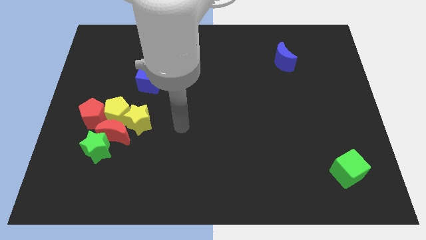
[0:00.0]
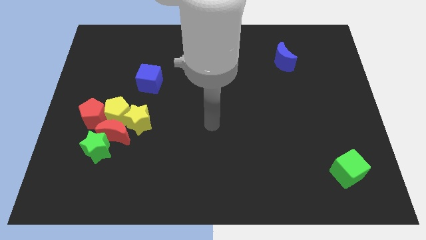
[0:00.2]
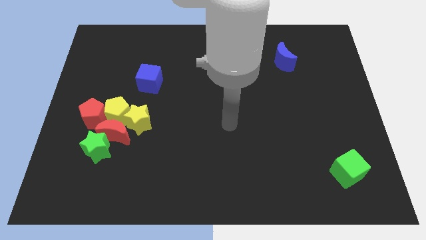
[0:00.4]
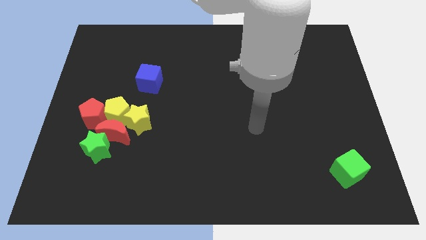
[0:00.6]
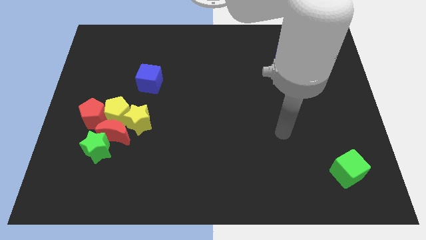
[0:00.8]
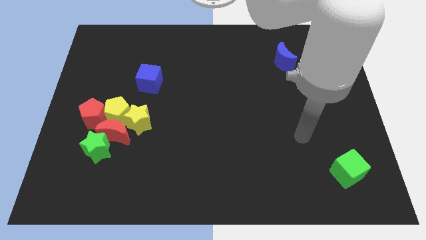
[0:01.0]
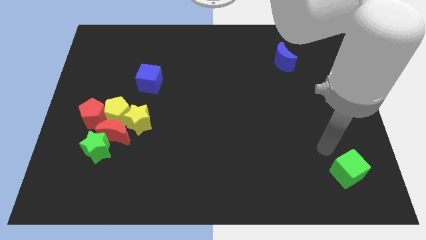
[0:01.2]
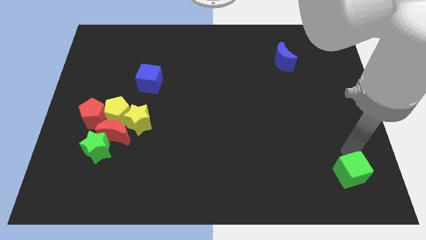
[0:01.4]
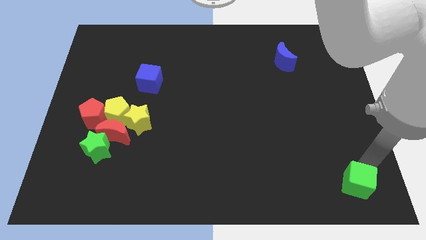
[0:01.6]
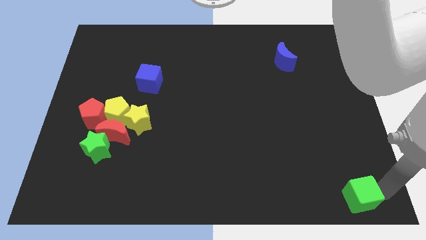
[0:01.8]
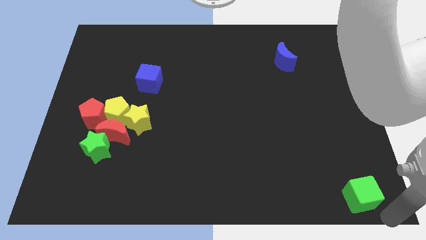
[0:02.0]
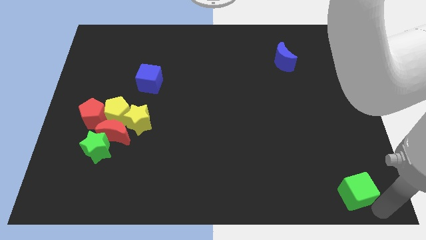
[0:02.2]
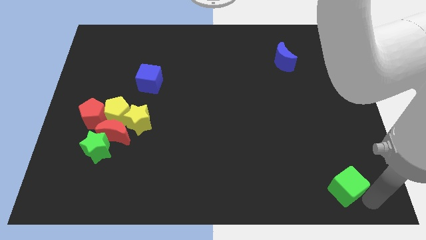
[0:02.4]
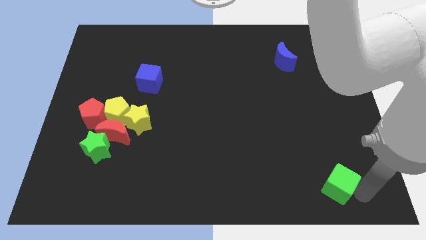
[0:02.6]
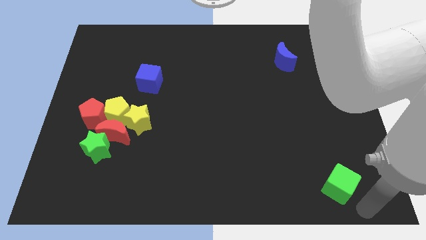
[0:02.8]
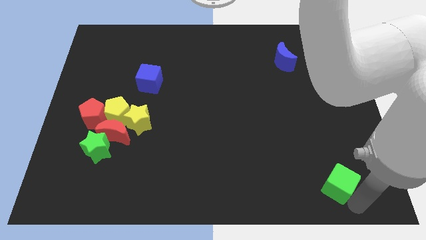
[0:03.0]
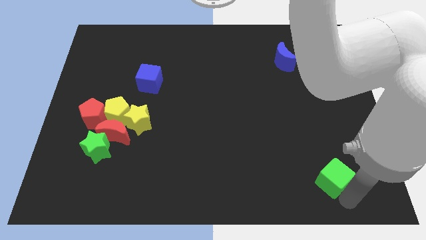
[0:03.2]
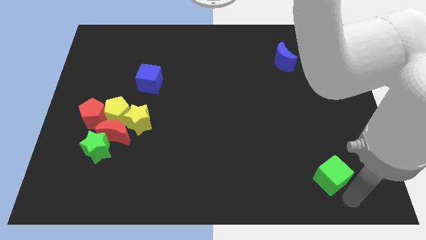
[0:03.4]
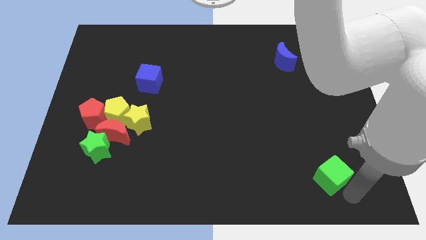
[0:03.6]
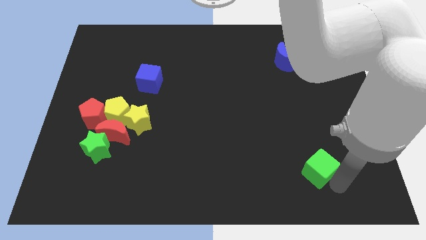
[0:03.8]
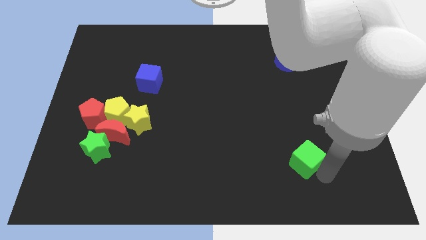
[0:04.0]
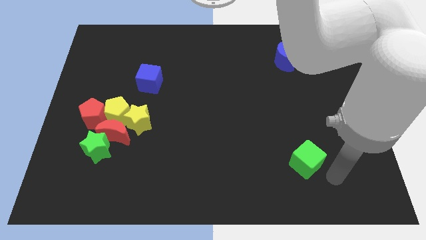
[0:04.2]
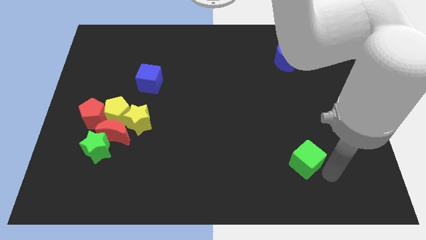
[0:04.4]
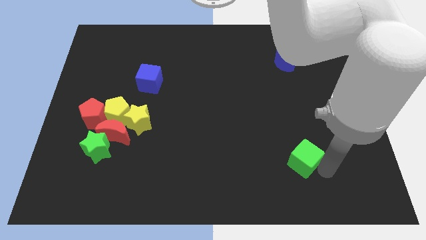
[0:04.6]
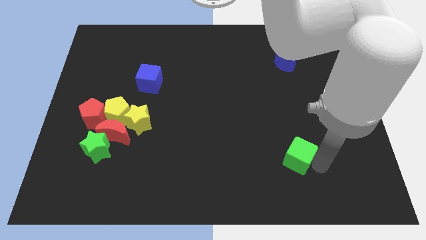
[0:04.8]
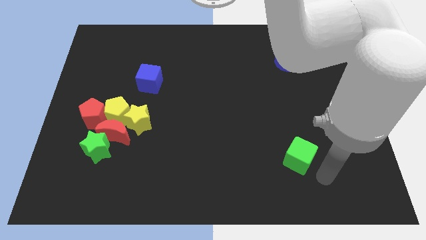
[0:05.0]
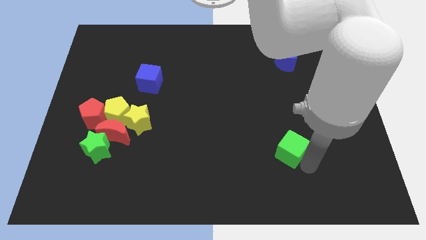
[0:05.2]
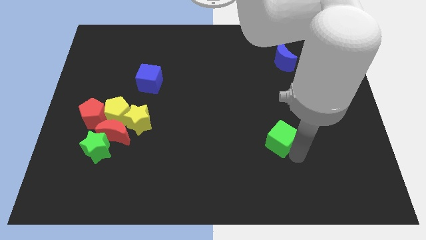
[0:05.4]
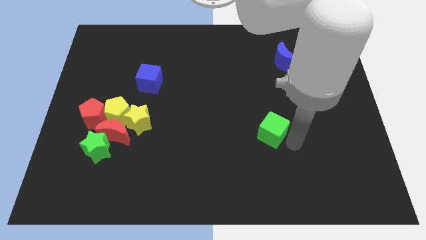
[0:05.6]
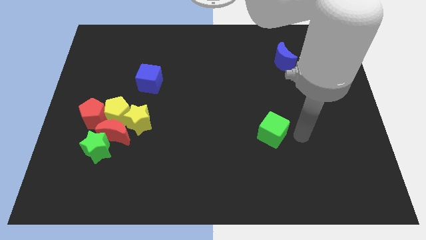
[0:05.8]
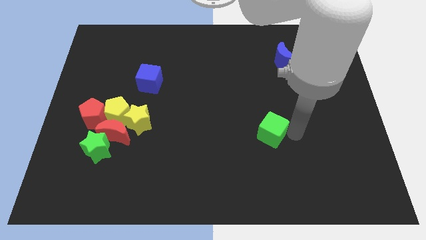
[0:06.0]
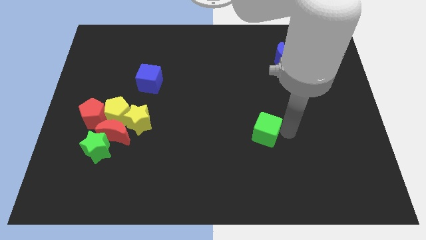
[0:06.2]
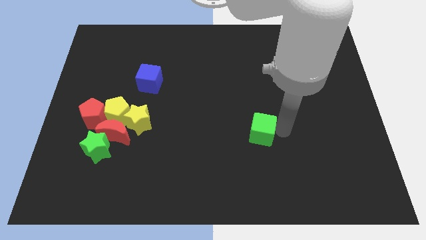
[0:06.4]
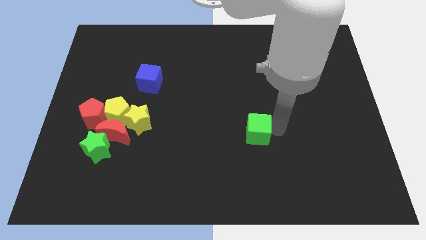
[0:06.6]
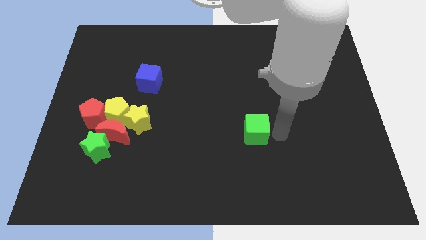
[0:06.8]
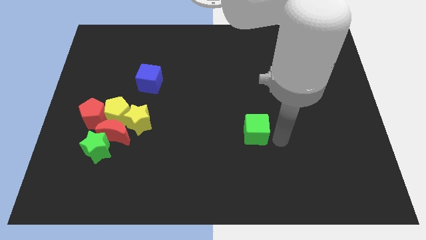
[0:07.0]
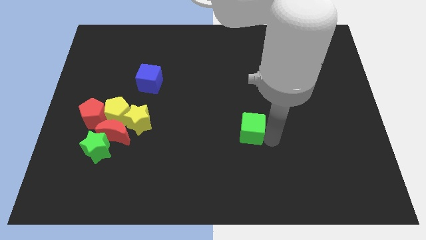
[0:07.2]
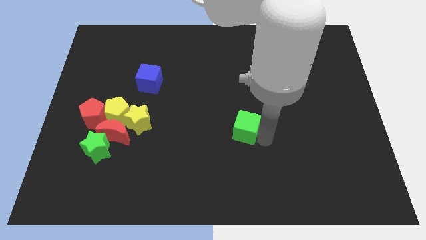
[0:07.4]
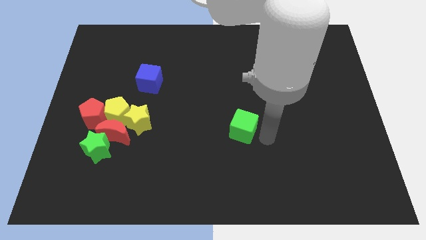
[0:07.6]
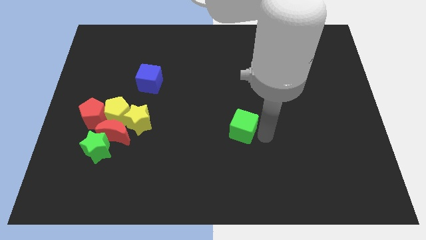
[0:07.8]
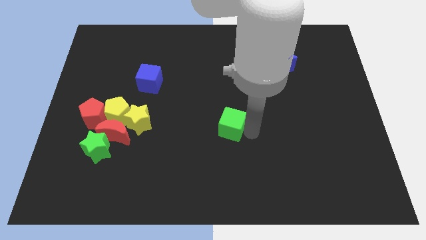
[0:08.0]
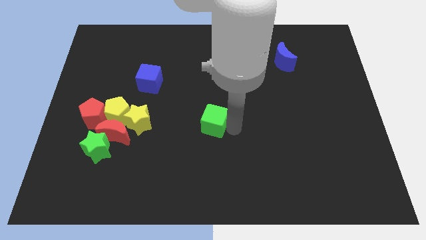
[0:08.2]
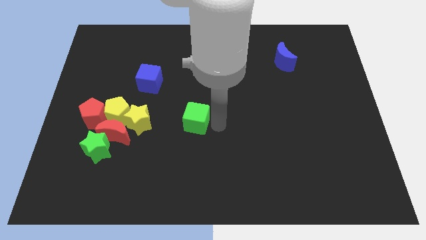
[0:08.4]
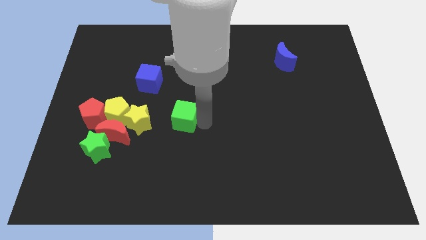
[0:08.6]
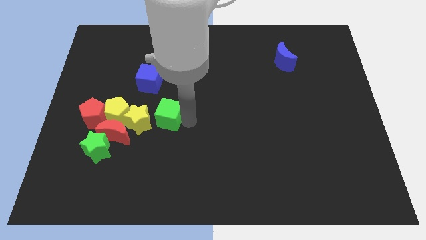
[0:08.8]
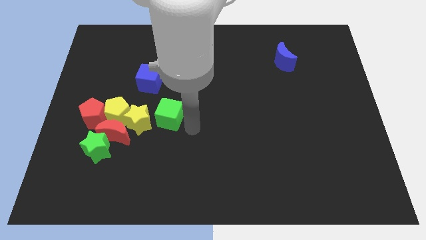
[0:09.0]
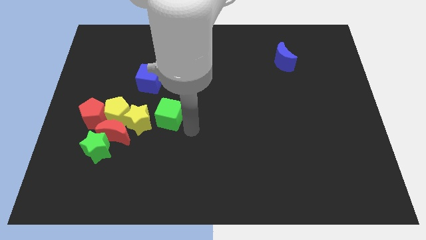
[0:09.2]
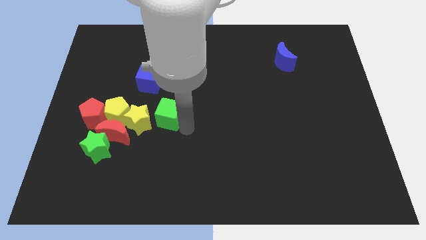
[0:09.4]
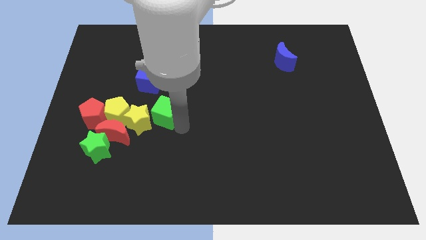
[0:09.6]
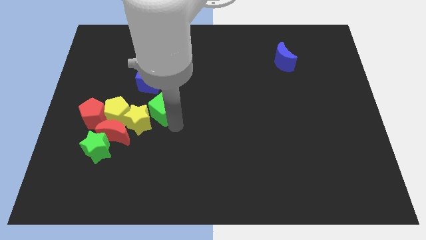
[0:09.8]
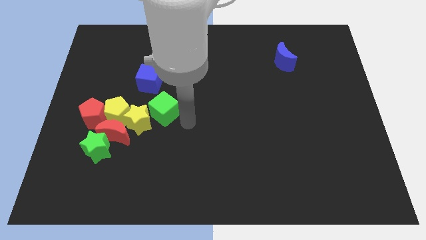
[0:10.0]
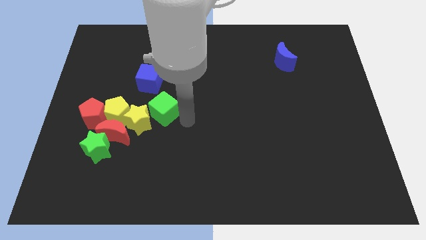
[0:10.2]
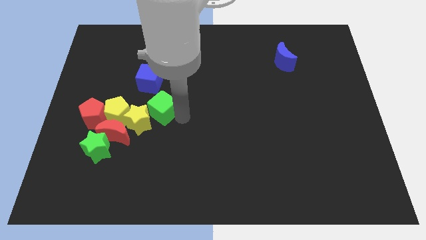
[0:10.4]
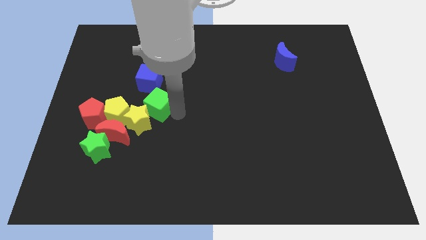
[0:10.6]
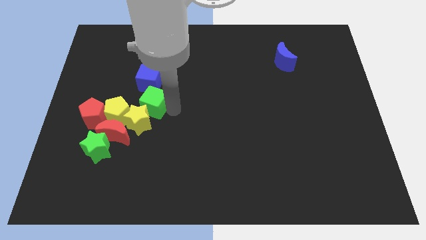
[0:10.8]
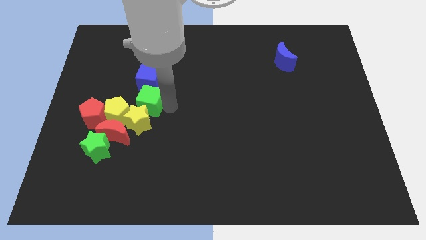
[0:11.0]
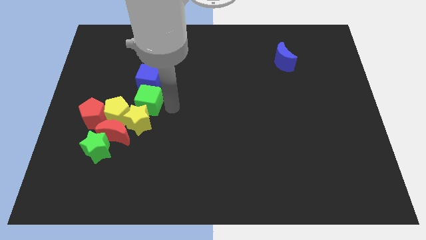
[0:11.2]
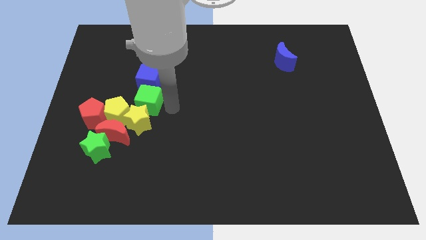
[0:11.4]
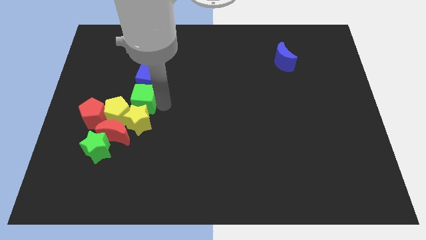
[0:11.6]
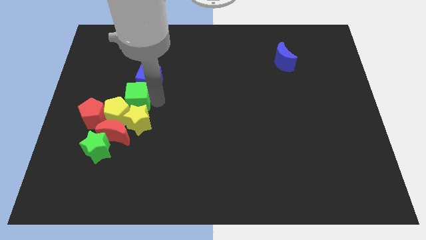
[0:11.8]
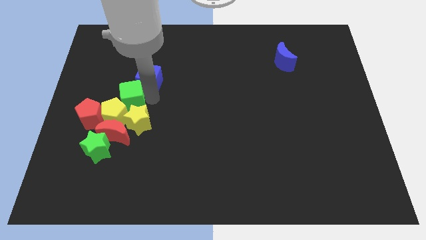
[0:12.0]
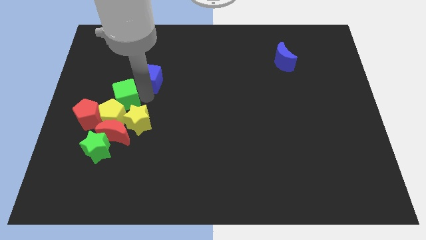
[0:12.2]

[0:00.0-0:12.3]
move the green cube to the top of the green star

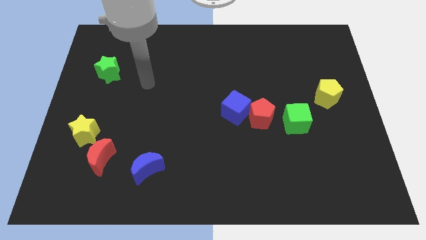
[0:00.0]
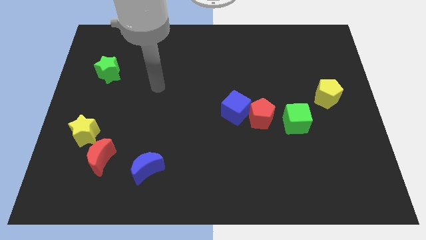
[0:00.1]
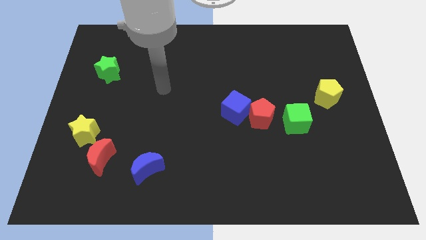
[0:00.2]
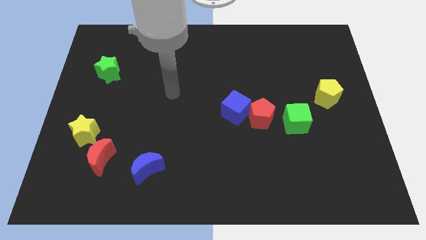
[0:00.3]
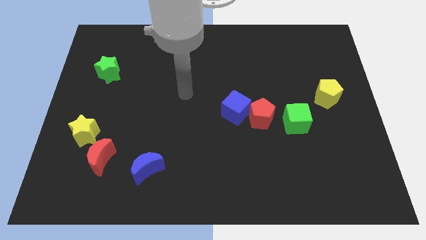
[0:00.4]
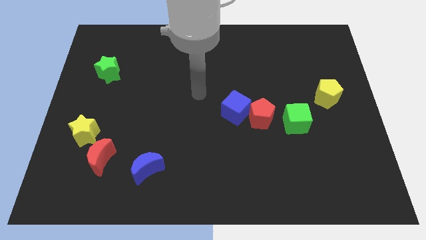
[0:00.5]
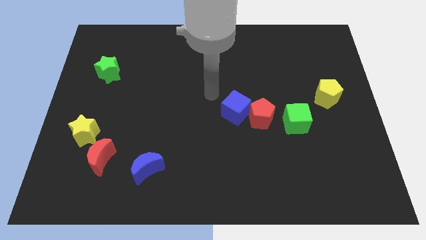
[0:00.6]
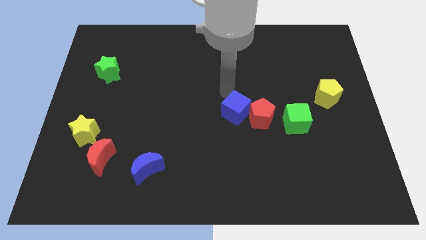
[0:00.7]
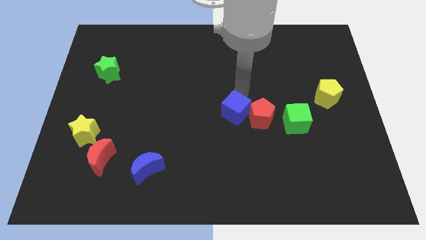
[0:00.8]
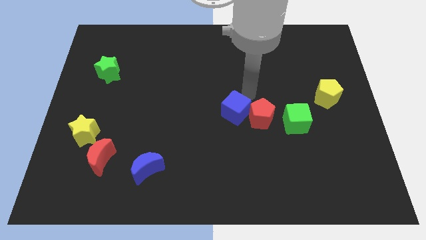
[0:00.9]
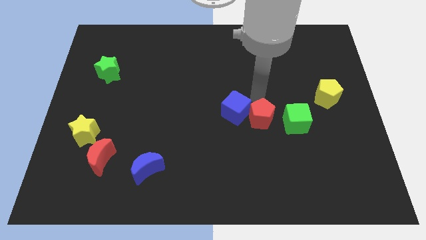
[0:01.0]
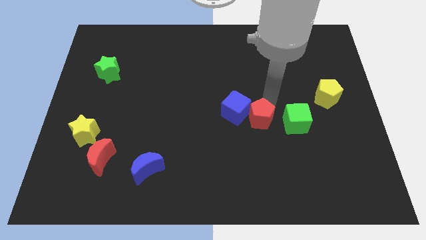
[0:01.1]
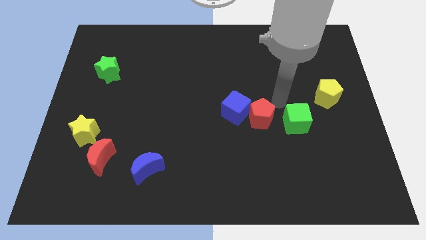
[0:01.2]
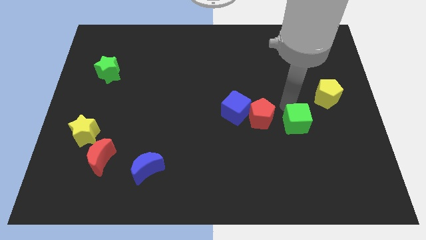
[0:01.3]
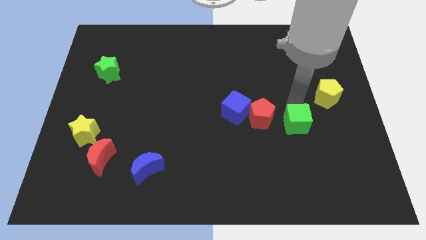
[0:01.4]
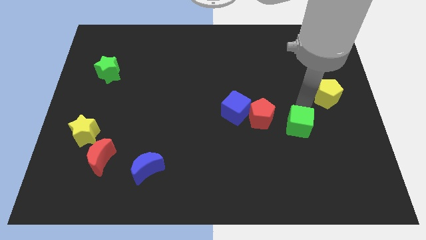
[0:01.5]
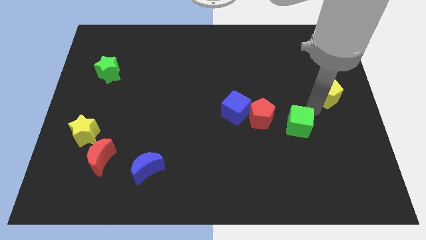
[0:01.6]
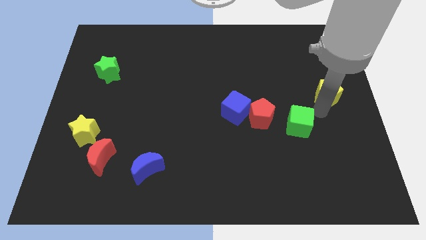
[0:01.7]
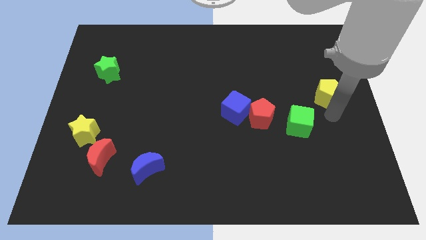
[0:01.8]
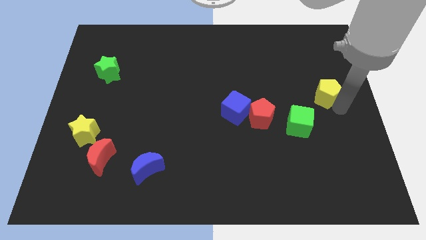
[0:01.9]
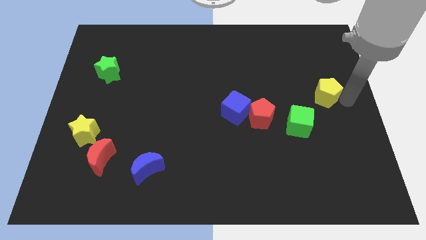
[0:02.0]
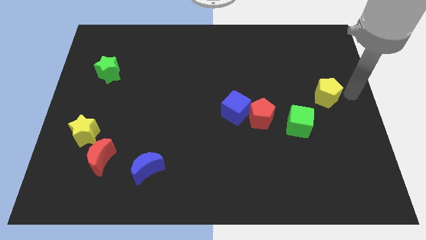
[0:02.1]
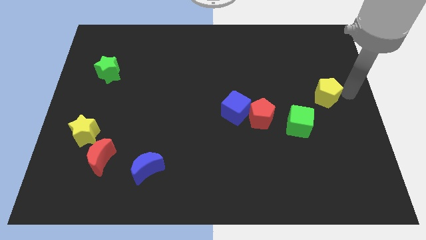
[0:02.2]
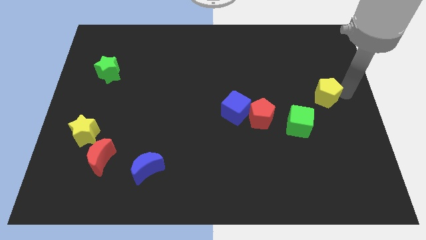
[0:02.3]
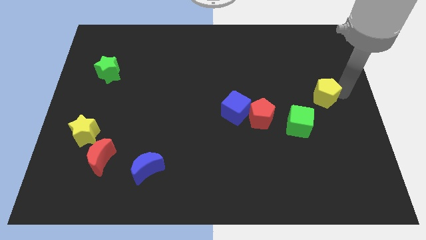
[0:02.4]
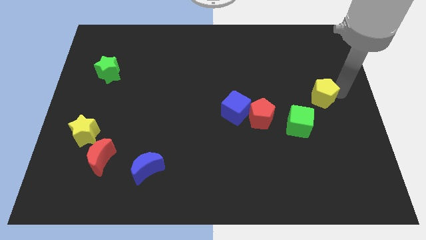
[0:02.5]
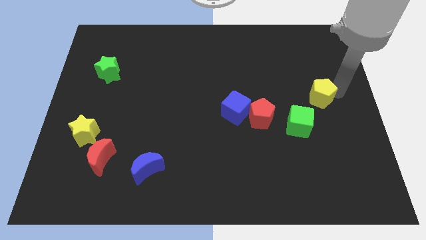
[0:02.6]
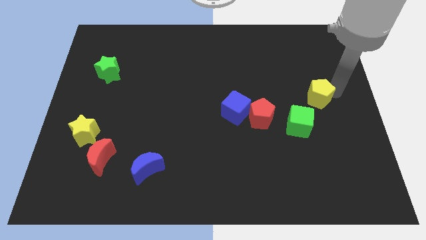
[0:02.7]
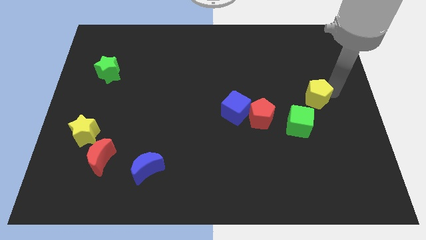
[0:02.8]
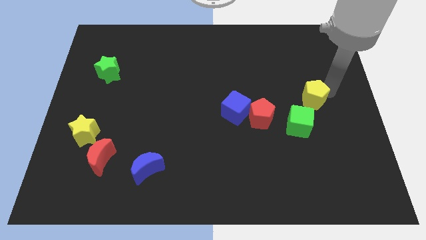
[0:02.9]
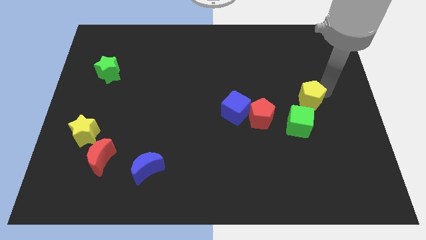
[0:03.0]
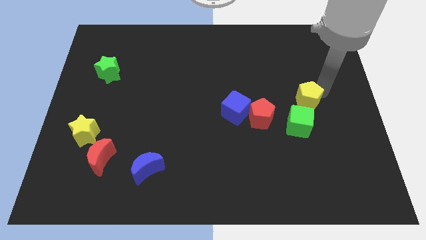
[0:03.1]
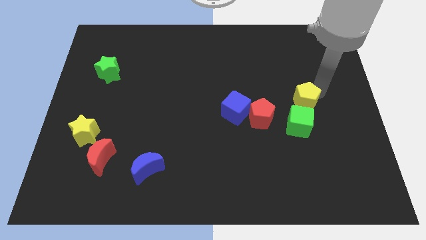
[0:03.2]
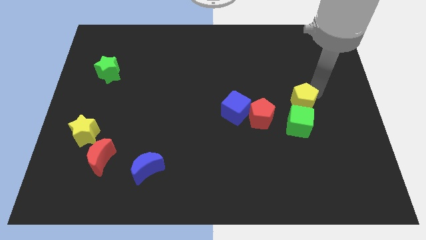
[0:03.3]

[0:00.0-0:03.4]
move the yellow pentagon to the top right of the red pentagon
